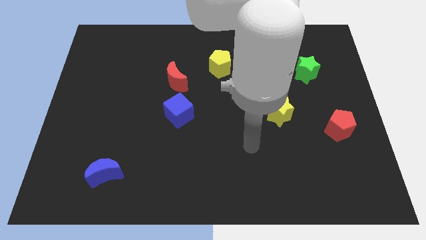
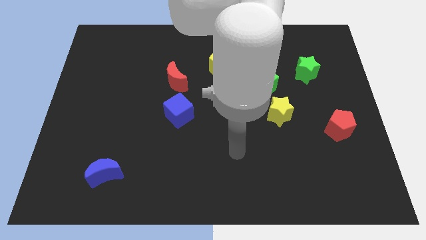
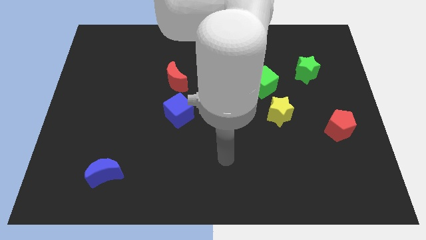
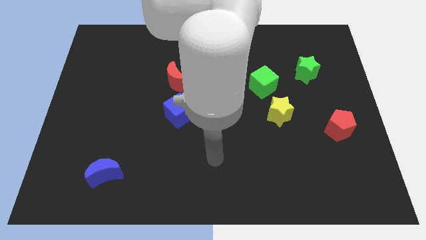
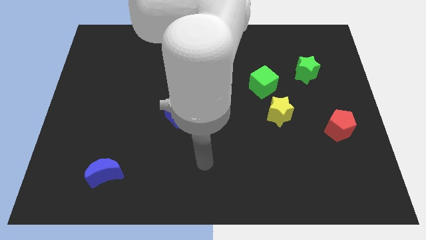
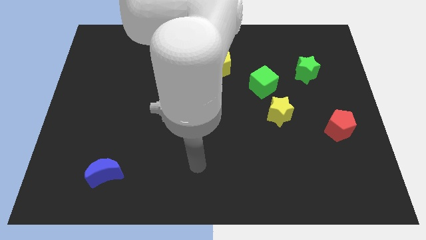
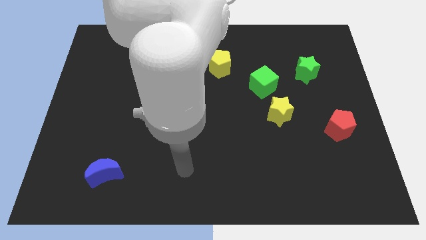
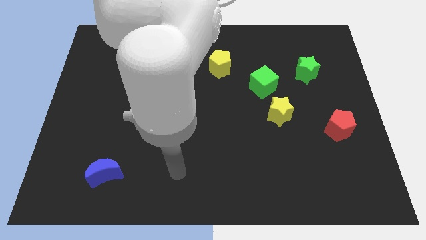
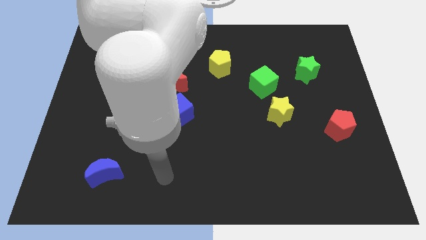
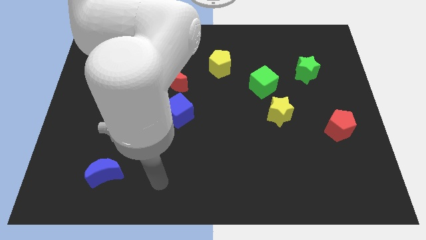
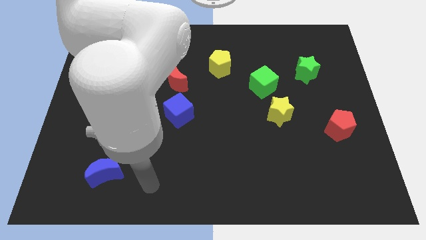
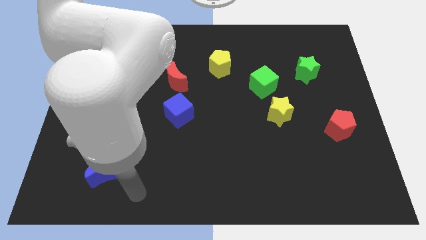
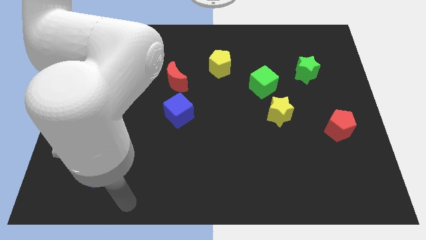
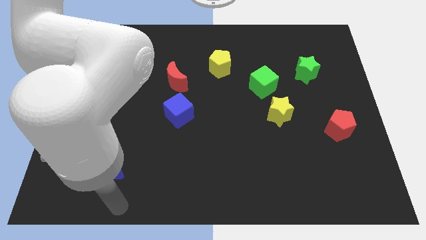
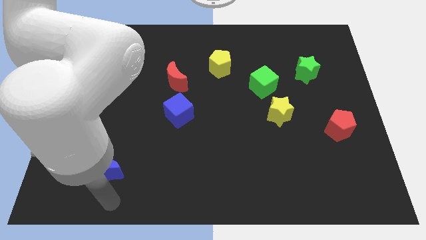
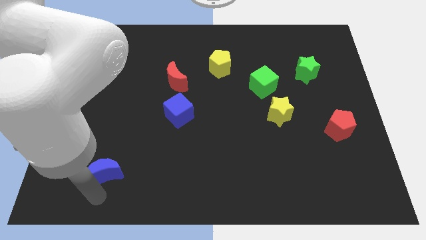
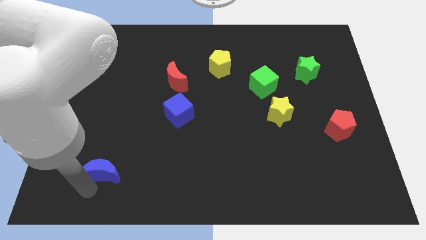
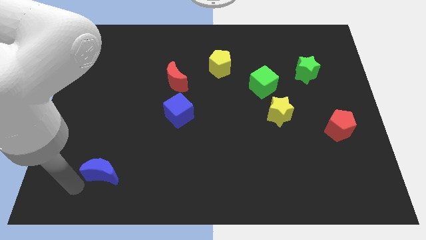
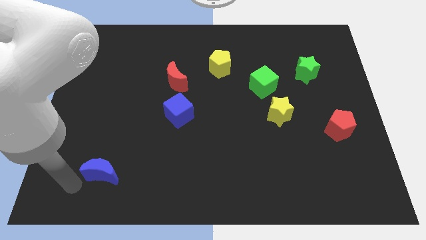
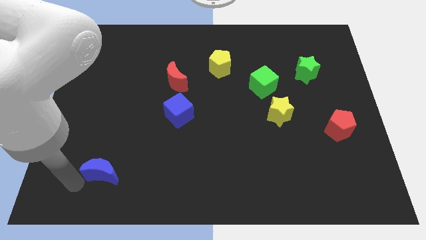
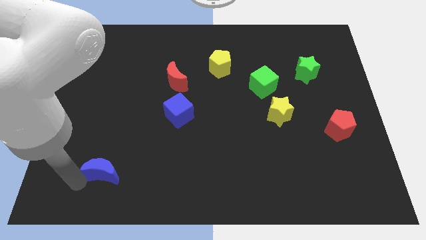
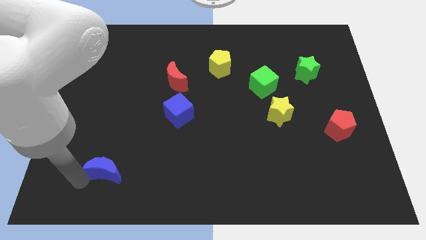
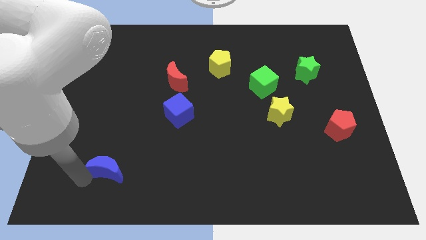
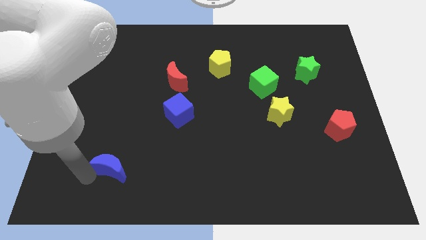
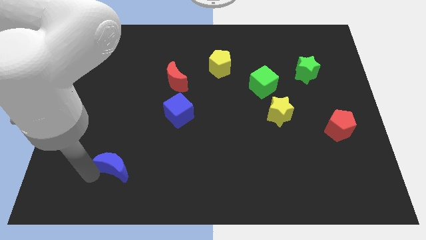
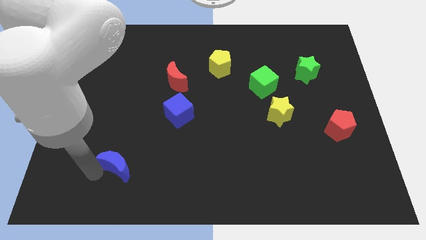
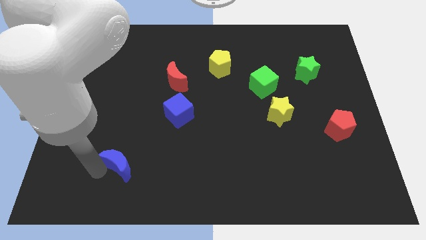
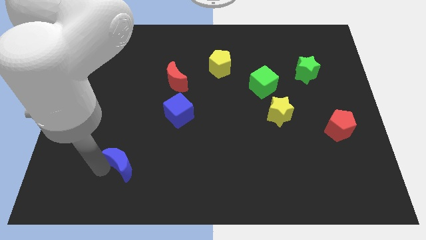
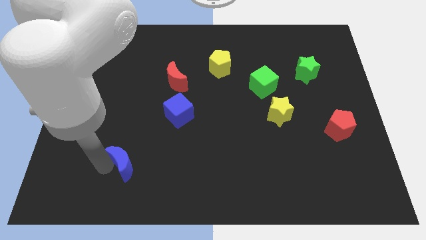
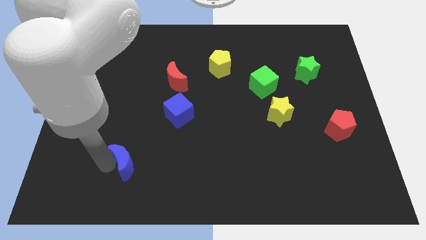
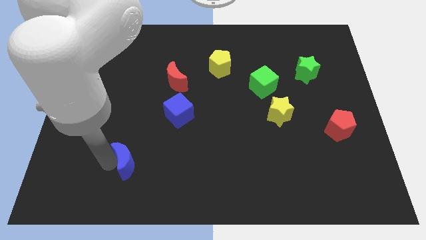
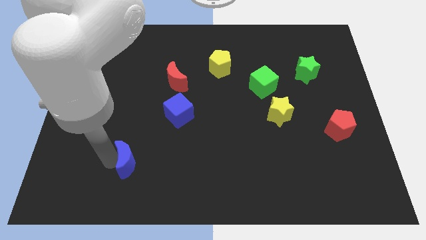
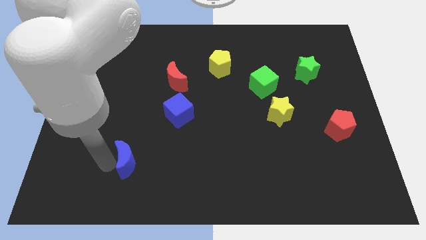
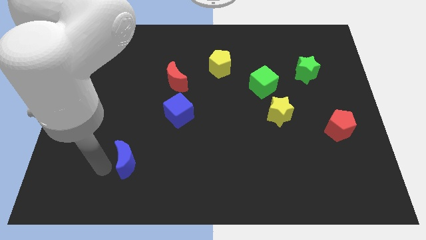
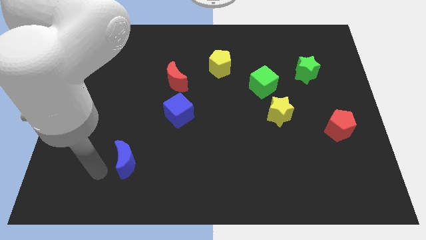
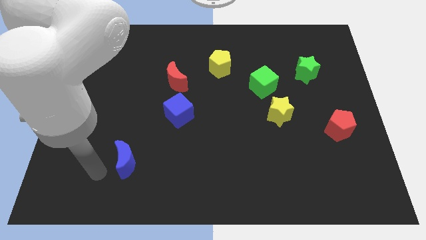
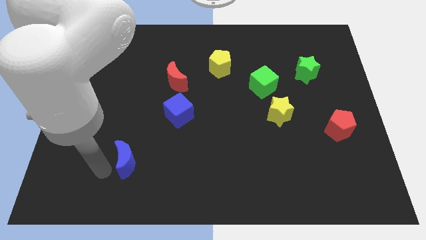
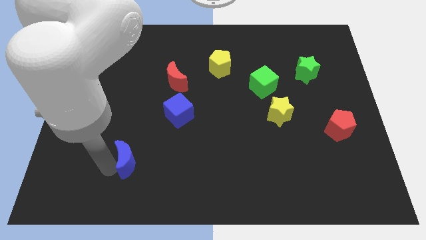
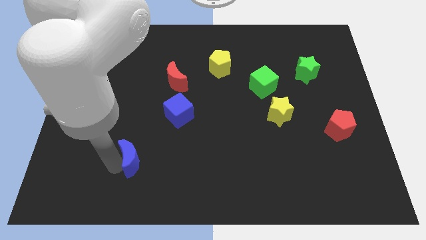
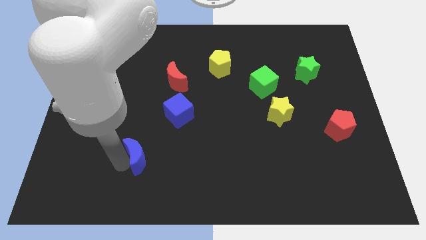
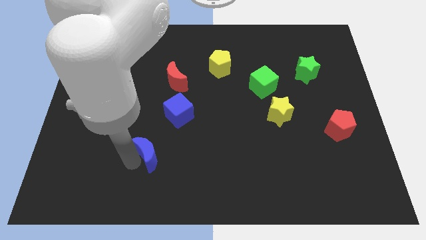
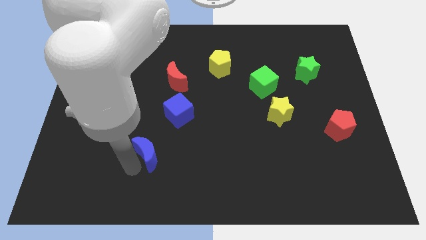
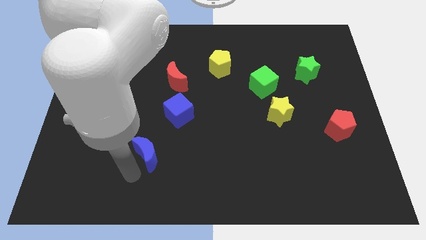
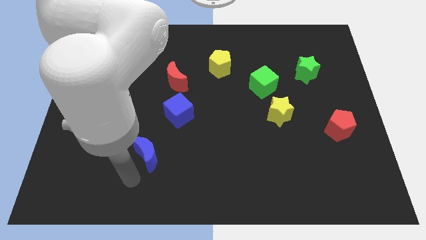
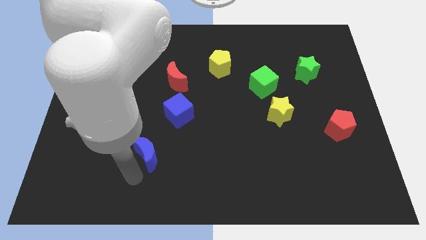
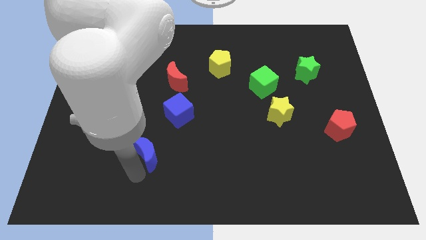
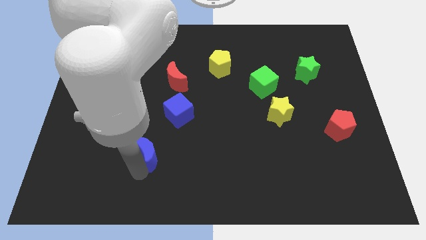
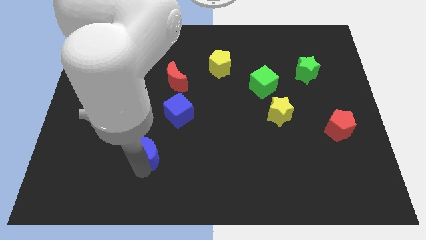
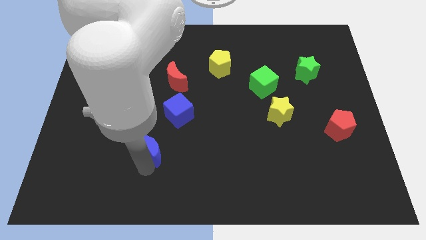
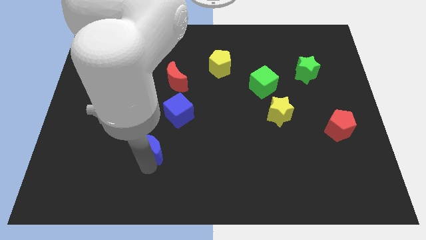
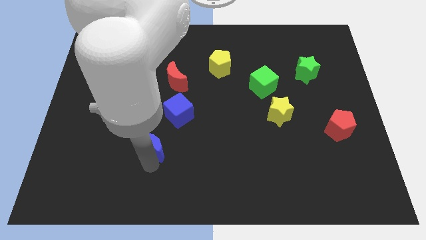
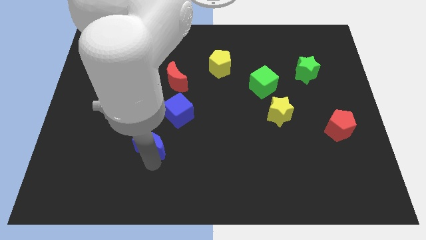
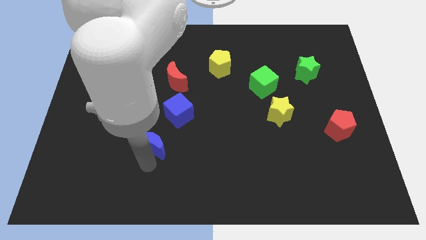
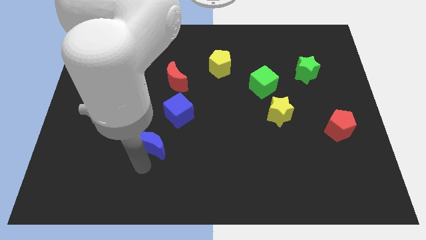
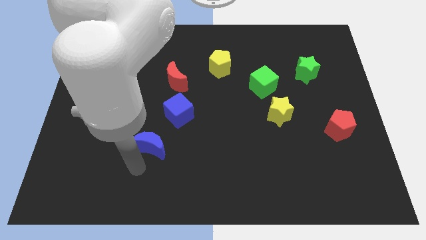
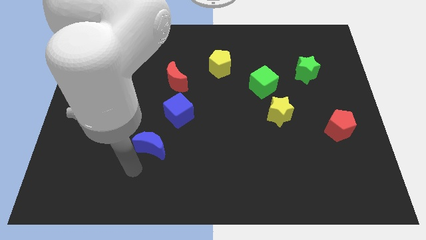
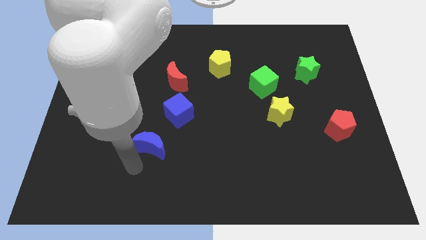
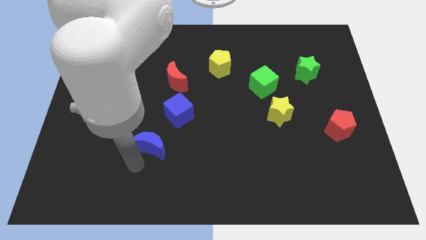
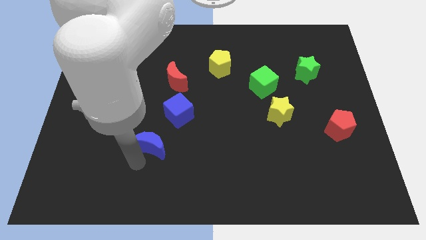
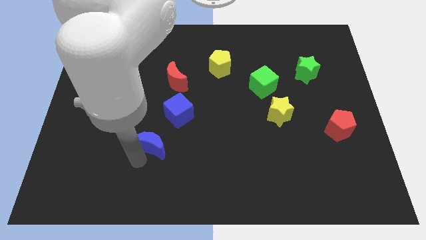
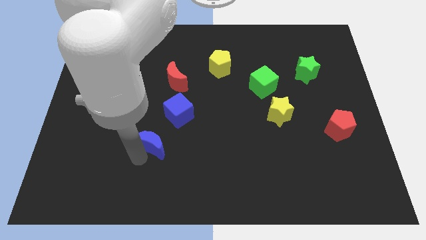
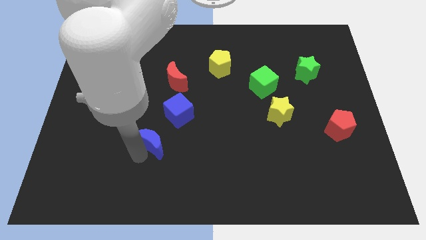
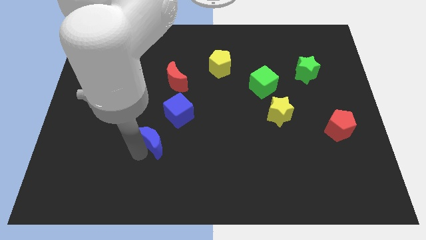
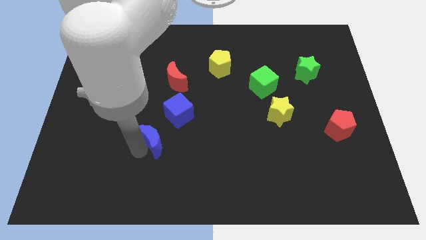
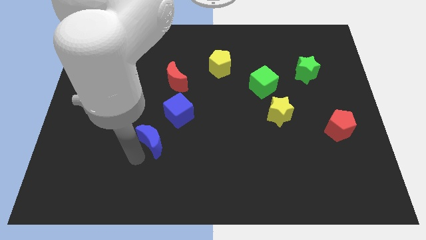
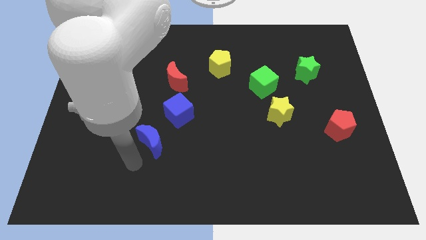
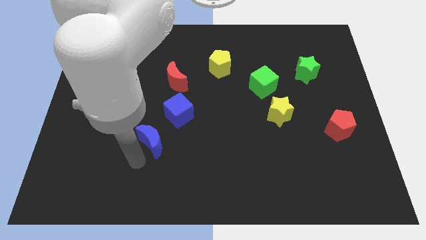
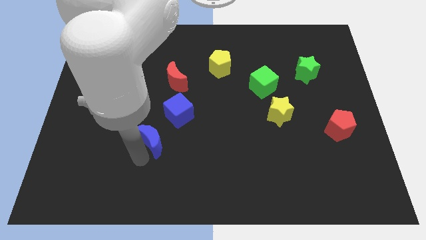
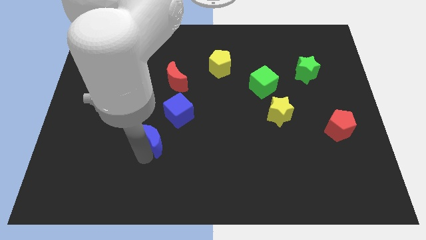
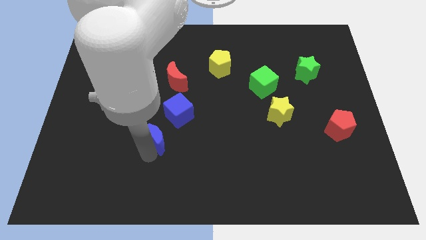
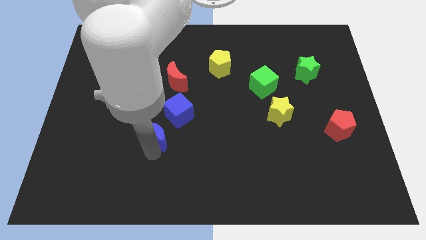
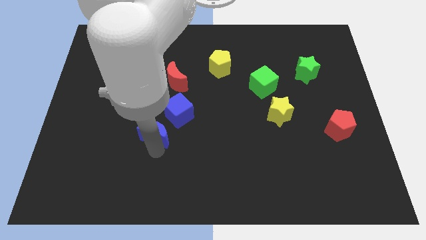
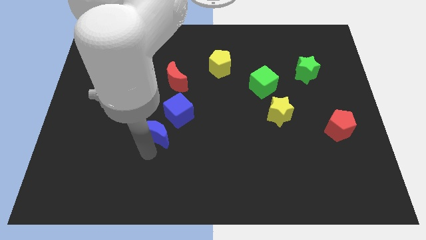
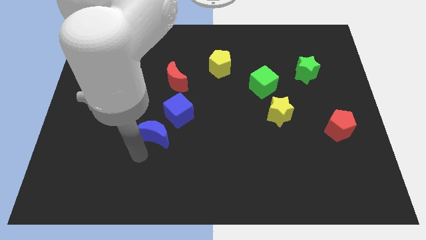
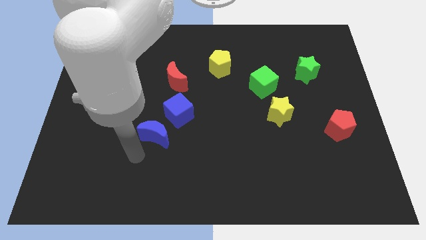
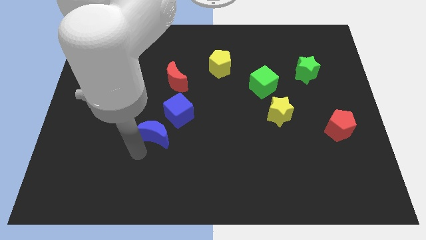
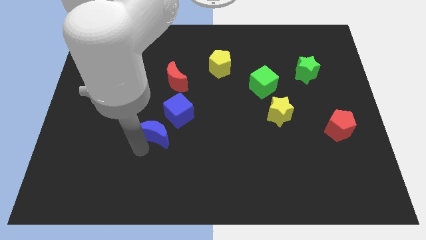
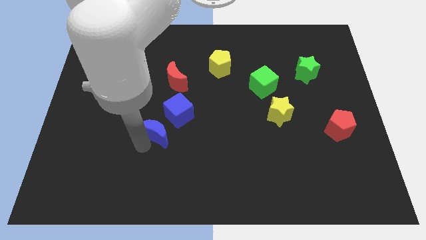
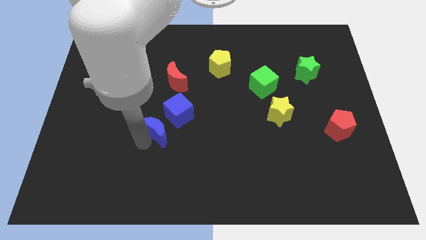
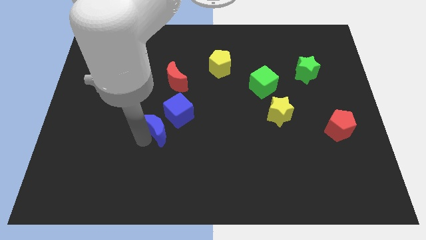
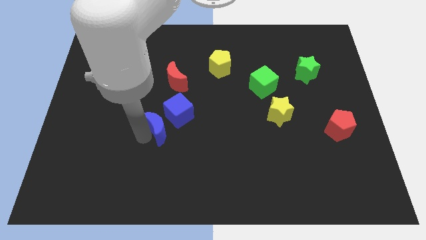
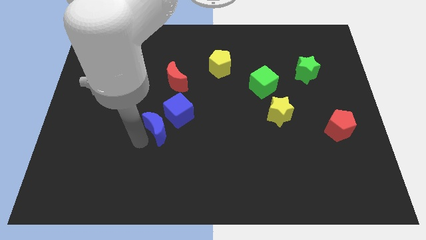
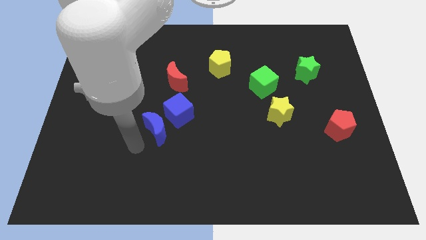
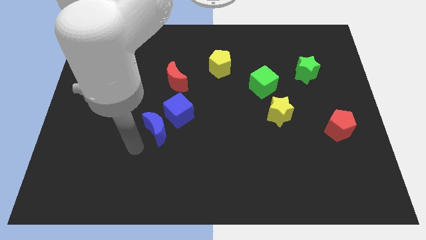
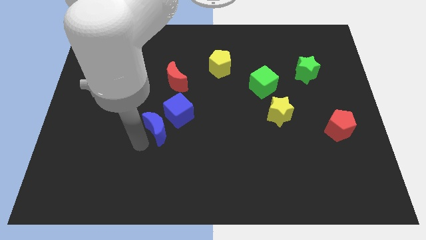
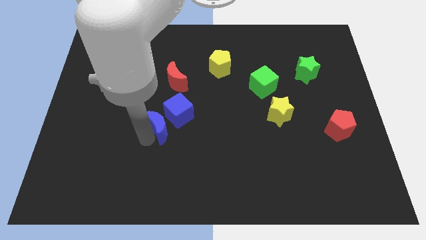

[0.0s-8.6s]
move the blue moon to the blue cube
